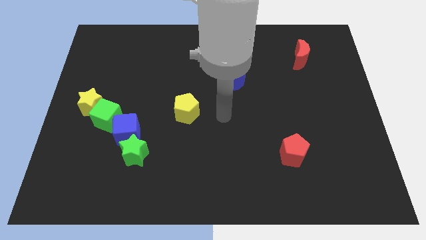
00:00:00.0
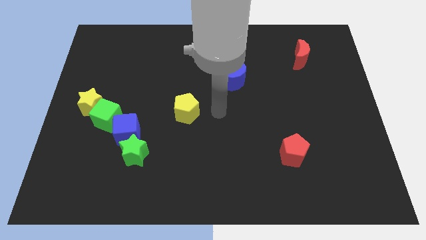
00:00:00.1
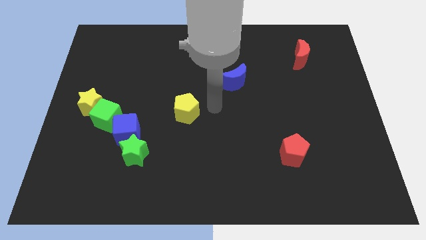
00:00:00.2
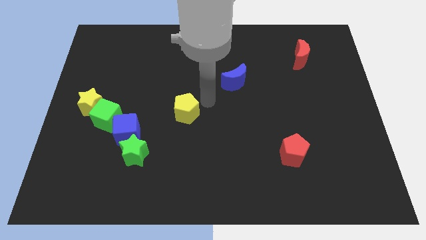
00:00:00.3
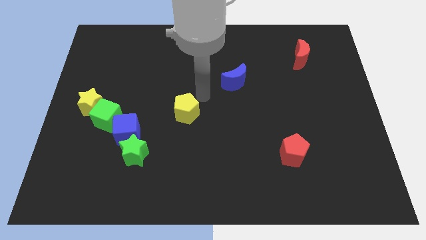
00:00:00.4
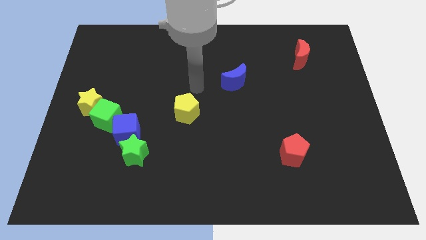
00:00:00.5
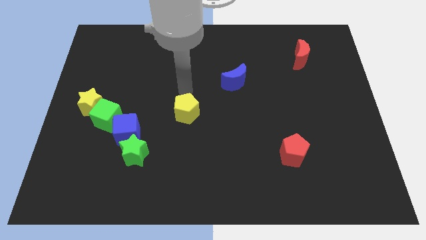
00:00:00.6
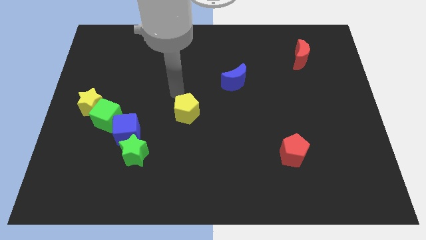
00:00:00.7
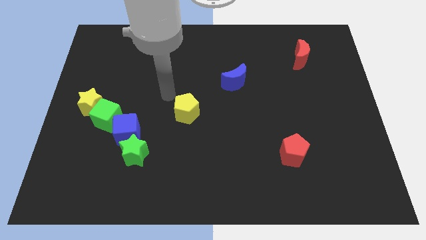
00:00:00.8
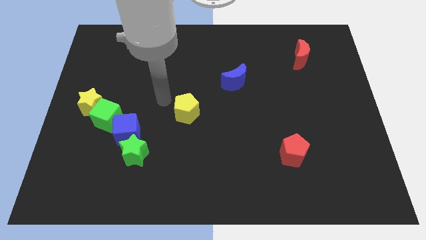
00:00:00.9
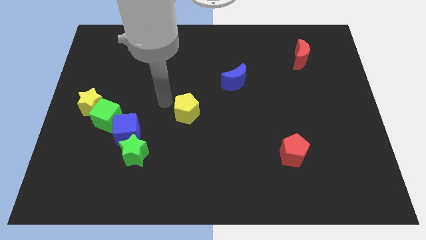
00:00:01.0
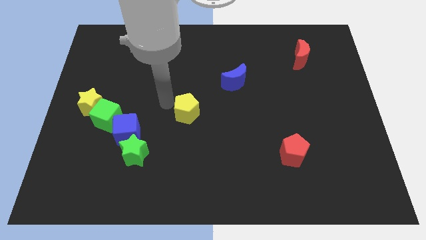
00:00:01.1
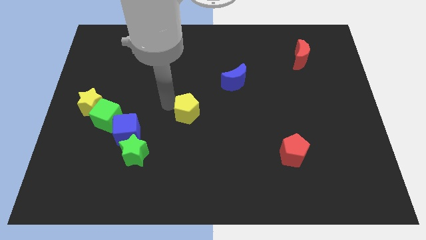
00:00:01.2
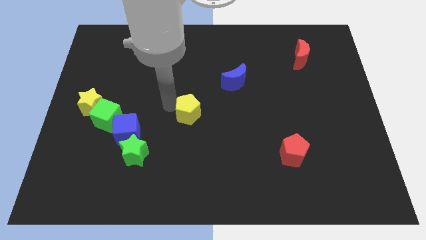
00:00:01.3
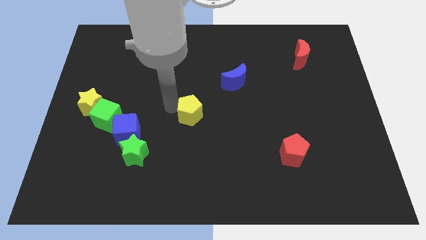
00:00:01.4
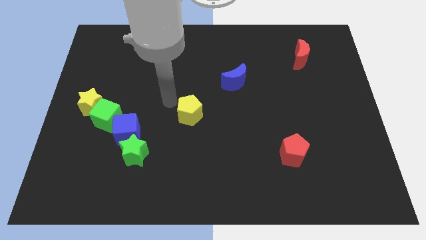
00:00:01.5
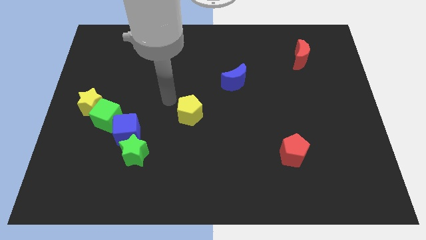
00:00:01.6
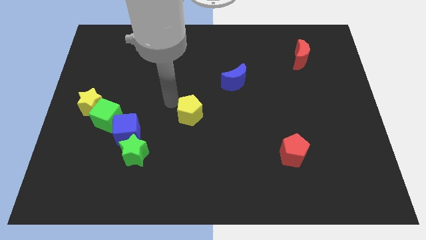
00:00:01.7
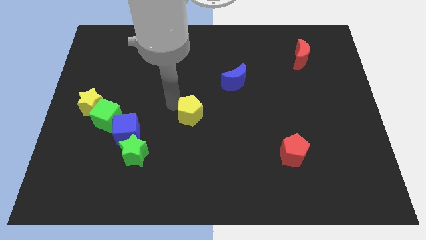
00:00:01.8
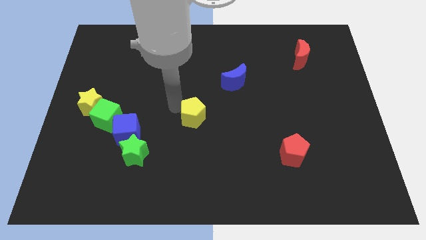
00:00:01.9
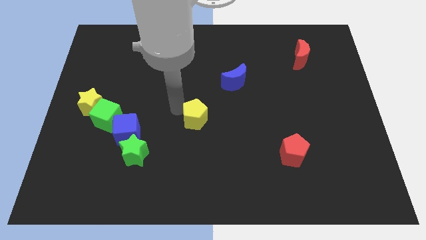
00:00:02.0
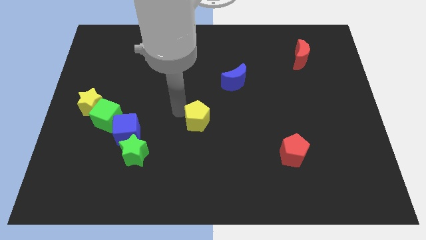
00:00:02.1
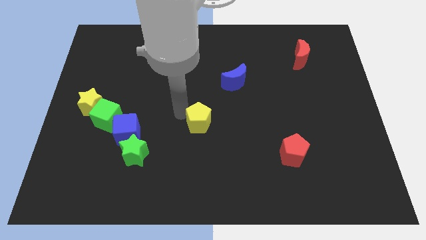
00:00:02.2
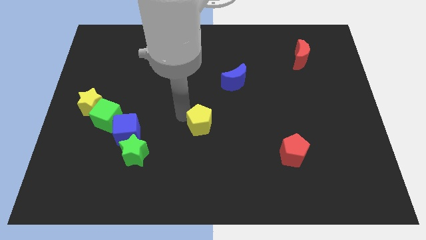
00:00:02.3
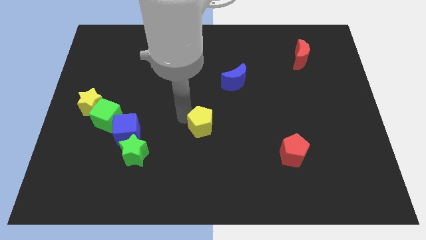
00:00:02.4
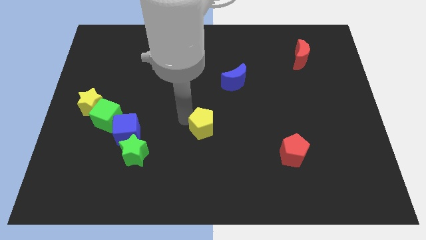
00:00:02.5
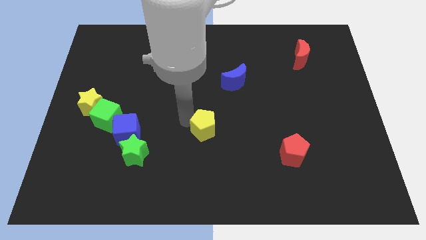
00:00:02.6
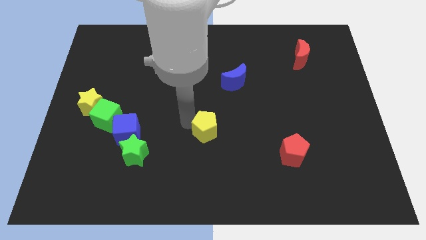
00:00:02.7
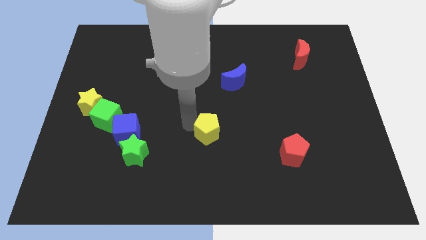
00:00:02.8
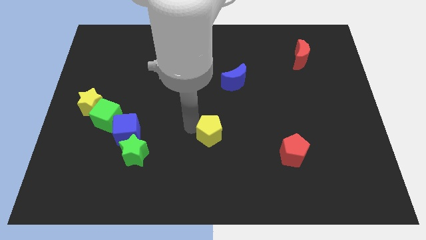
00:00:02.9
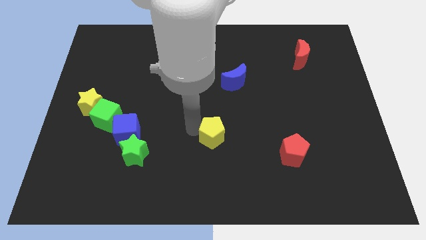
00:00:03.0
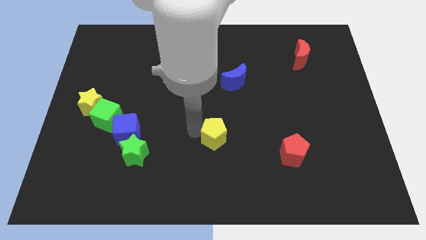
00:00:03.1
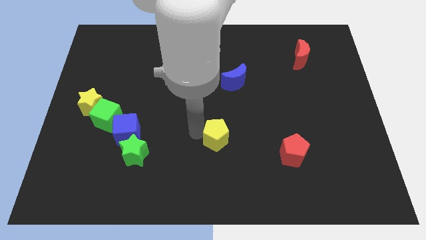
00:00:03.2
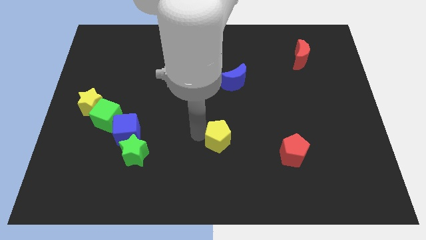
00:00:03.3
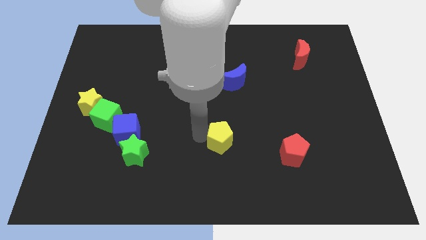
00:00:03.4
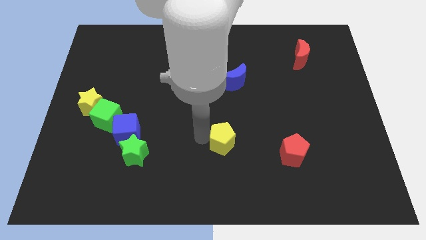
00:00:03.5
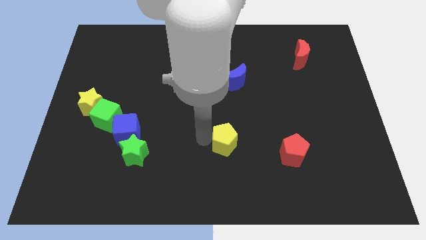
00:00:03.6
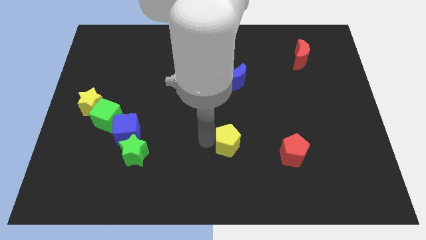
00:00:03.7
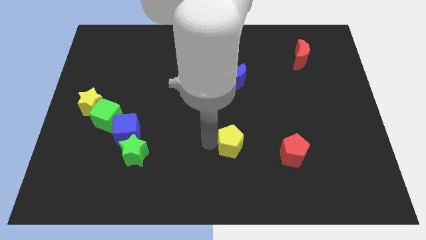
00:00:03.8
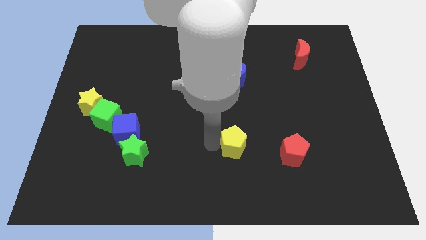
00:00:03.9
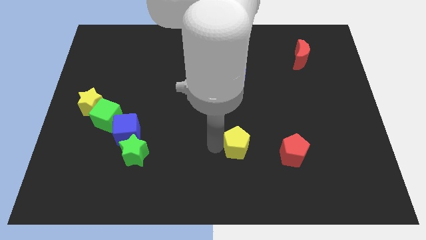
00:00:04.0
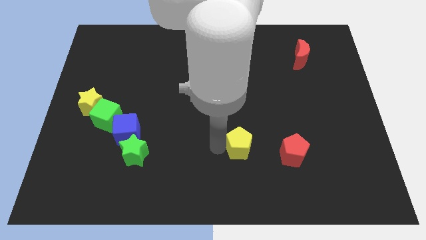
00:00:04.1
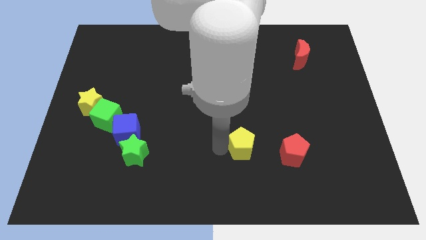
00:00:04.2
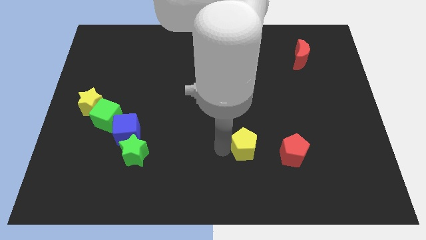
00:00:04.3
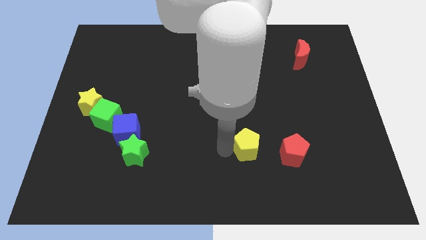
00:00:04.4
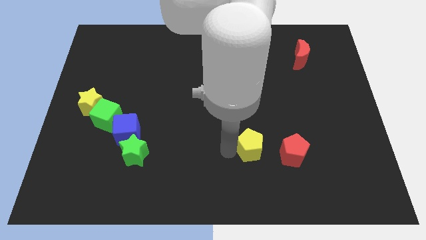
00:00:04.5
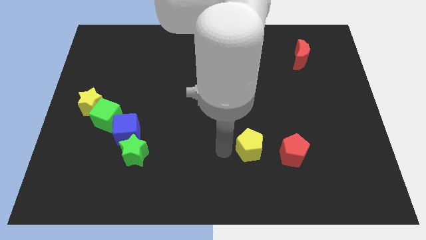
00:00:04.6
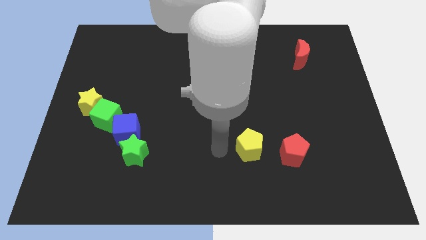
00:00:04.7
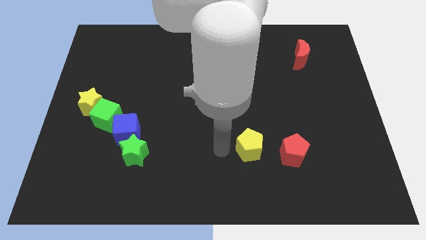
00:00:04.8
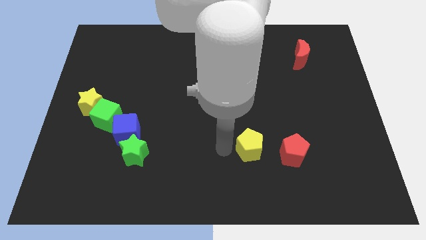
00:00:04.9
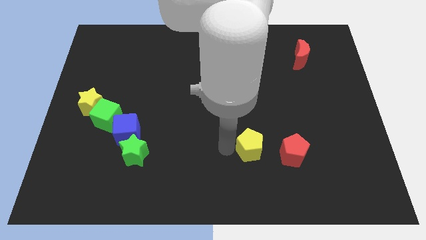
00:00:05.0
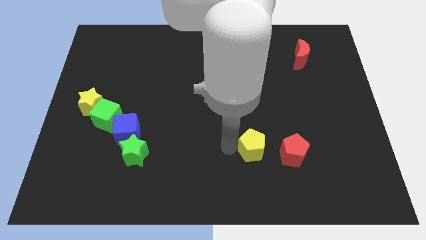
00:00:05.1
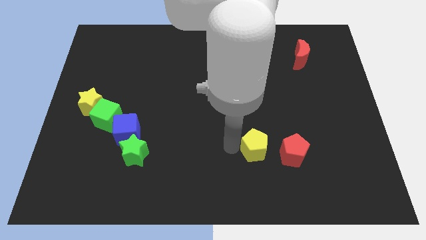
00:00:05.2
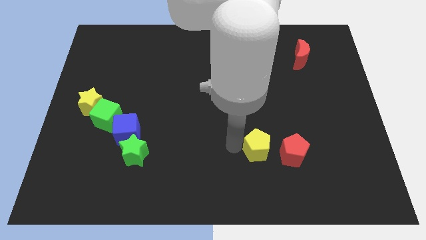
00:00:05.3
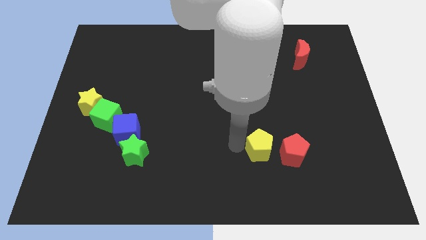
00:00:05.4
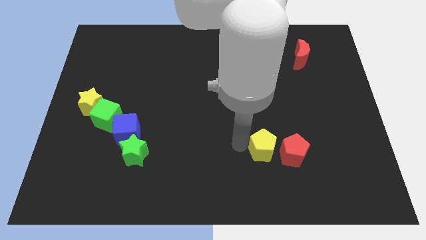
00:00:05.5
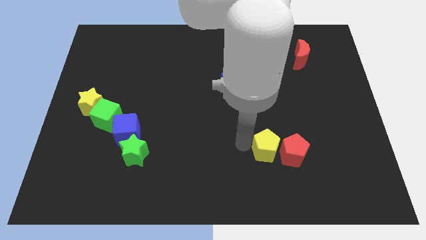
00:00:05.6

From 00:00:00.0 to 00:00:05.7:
slide the yellow pentagon towards the red pentagon

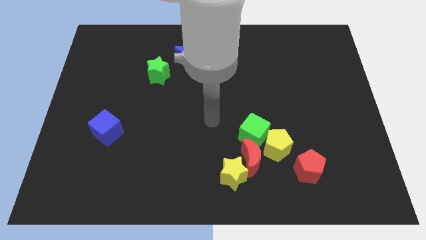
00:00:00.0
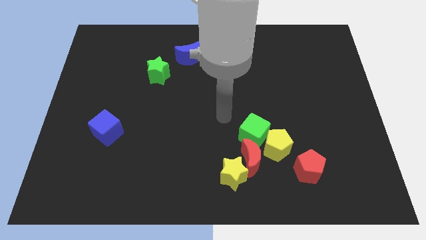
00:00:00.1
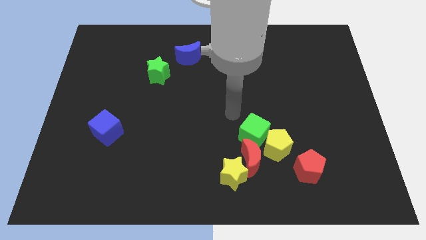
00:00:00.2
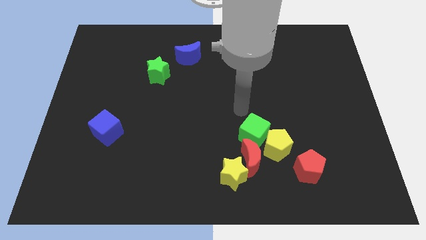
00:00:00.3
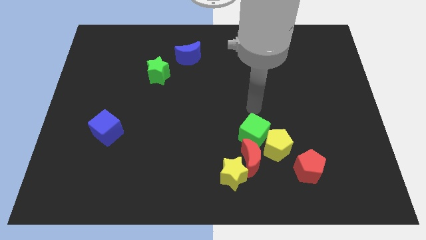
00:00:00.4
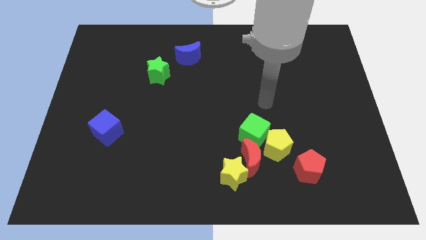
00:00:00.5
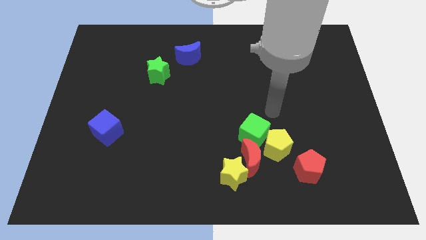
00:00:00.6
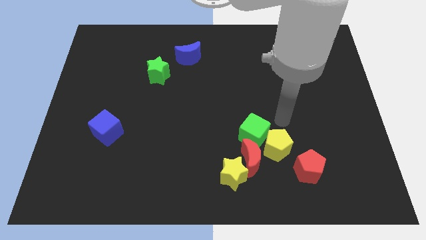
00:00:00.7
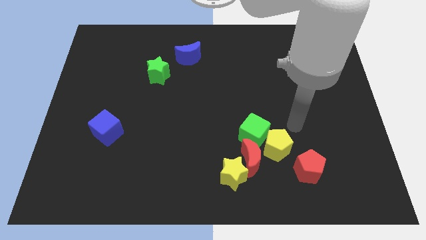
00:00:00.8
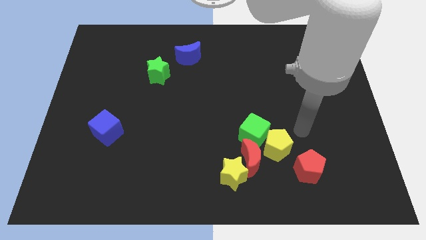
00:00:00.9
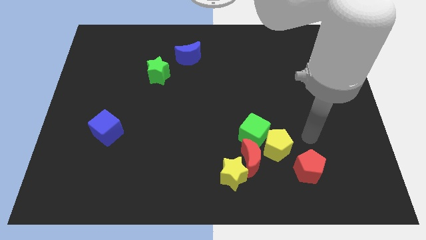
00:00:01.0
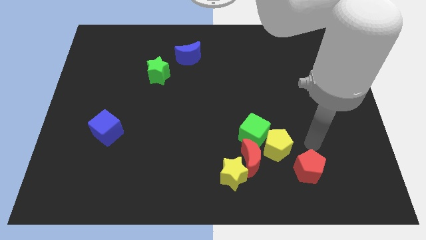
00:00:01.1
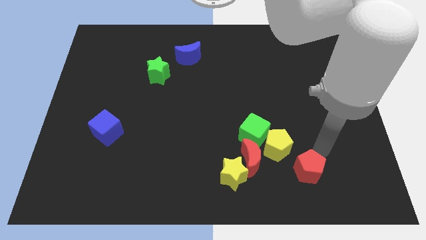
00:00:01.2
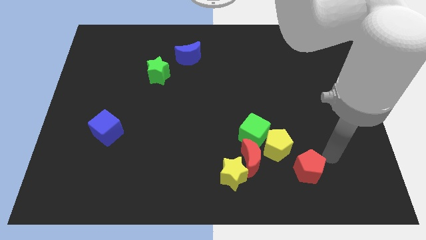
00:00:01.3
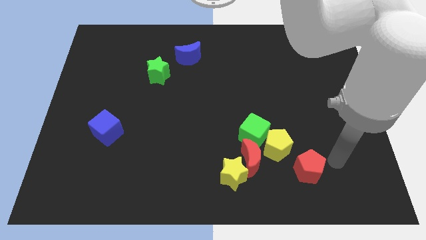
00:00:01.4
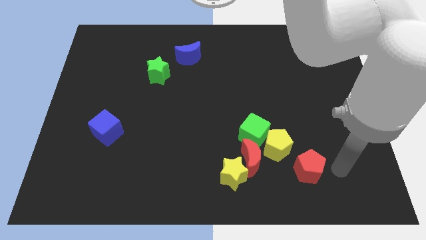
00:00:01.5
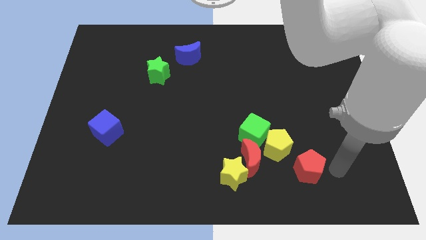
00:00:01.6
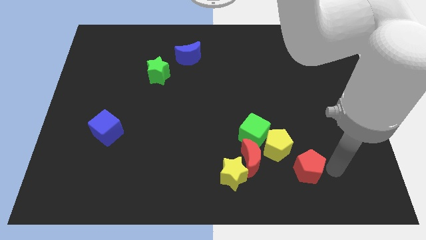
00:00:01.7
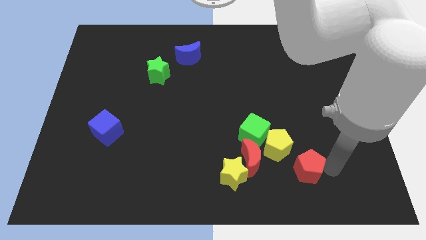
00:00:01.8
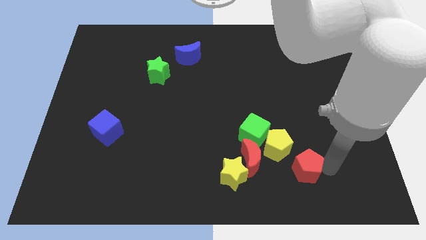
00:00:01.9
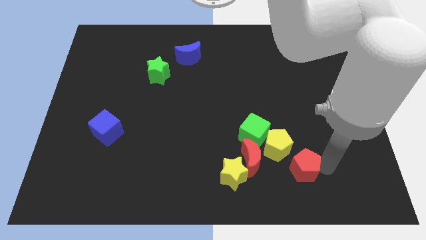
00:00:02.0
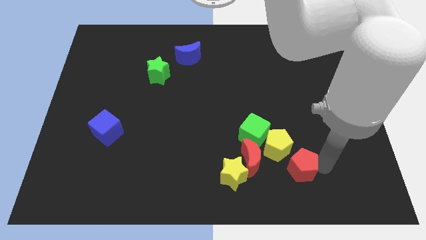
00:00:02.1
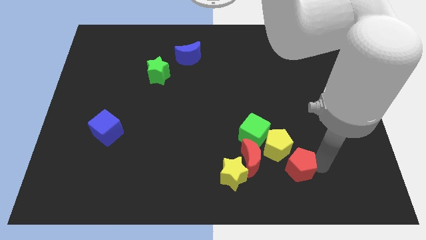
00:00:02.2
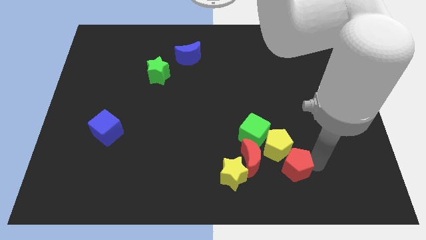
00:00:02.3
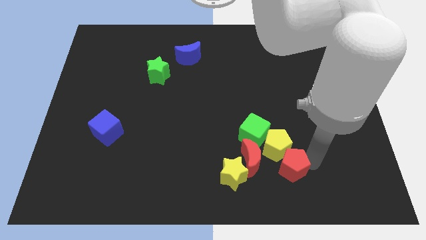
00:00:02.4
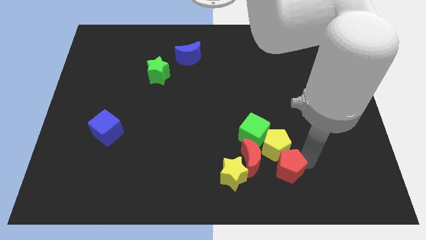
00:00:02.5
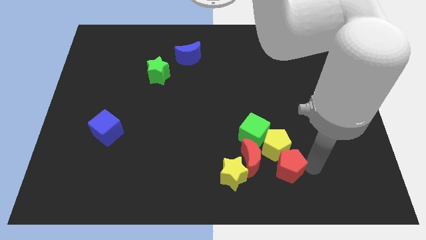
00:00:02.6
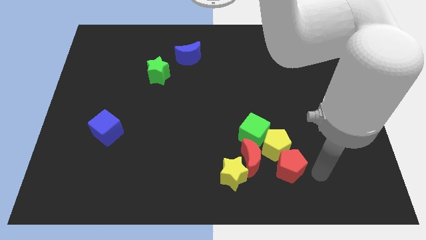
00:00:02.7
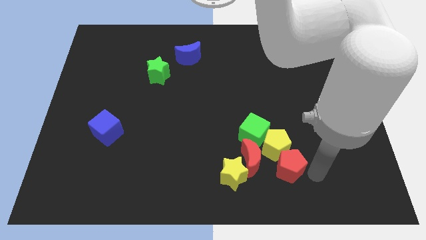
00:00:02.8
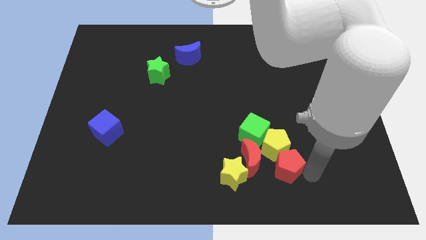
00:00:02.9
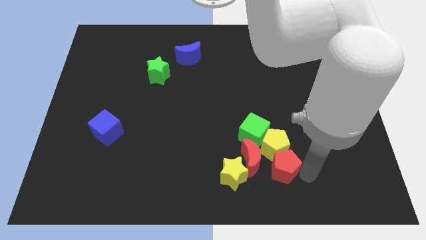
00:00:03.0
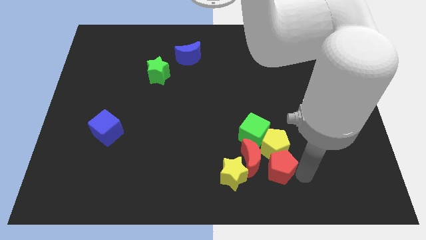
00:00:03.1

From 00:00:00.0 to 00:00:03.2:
slide the red pentagon to the red moon
